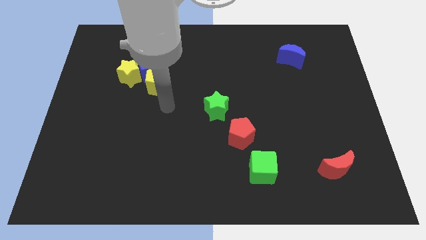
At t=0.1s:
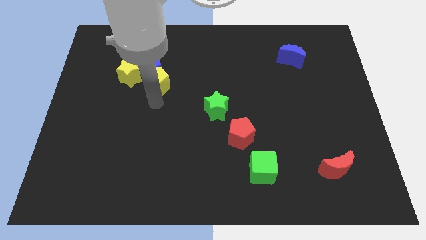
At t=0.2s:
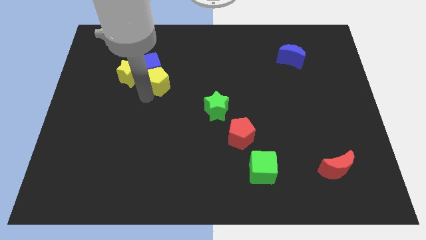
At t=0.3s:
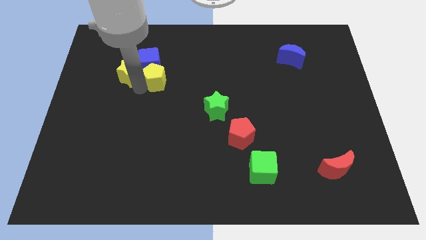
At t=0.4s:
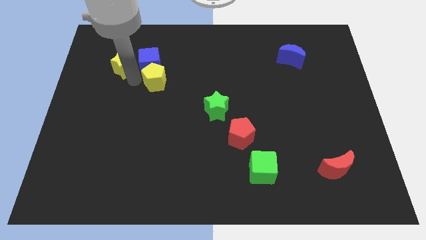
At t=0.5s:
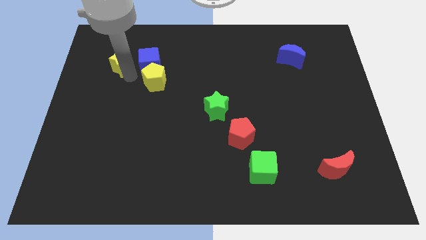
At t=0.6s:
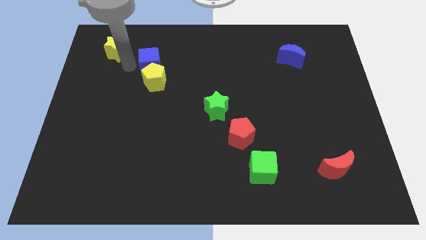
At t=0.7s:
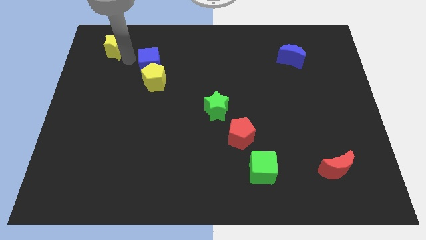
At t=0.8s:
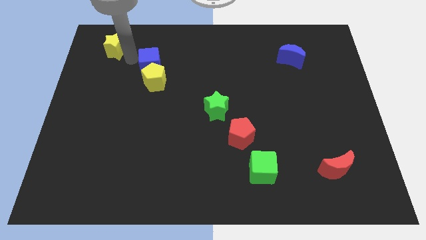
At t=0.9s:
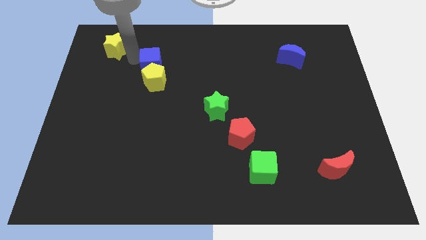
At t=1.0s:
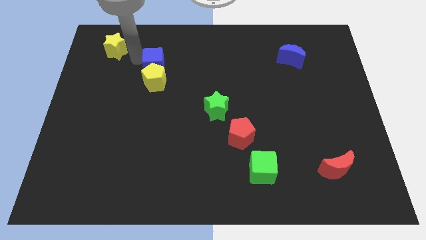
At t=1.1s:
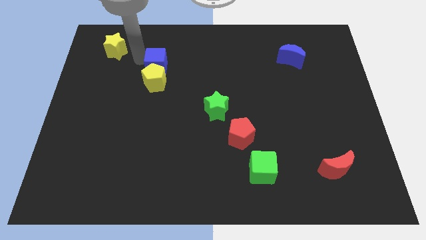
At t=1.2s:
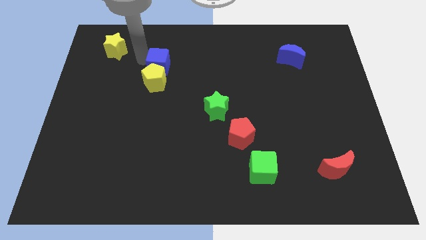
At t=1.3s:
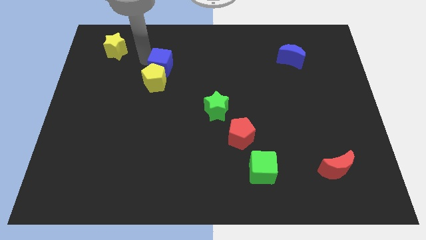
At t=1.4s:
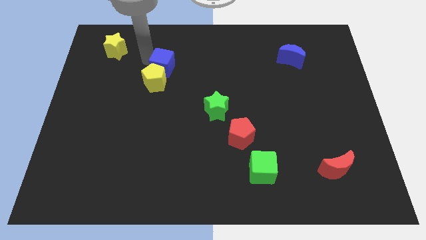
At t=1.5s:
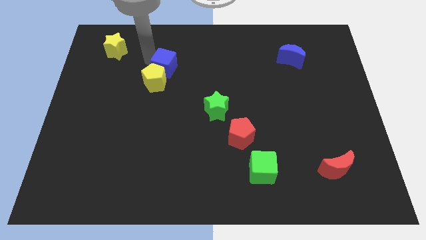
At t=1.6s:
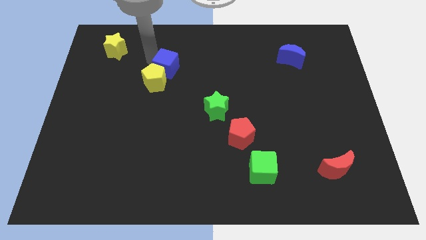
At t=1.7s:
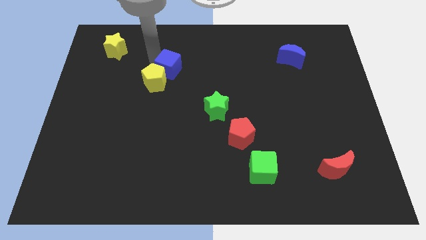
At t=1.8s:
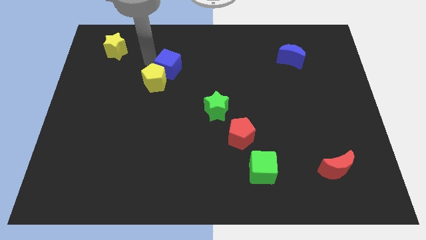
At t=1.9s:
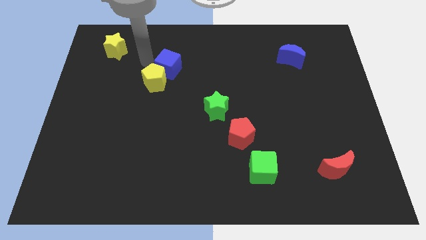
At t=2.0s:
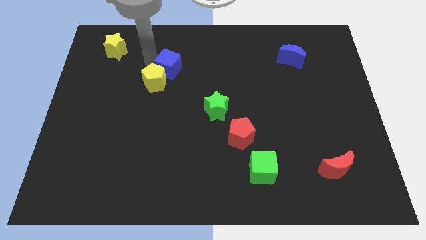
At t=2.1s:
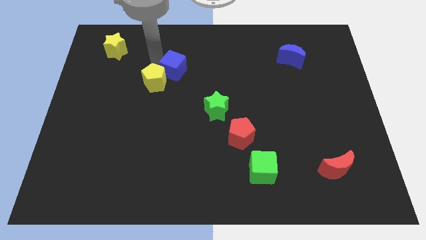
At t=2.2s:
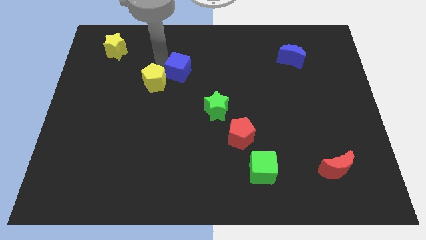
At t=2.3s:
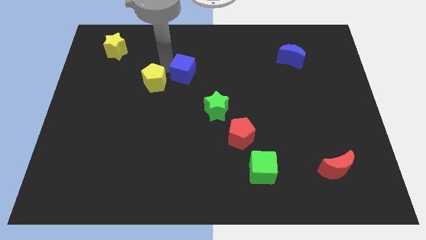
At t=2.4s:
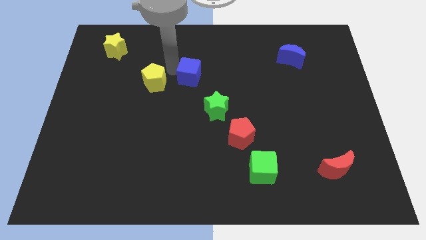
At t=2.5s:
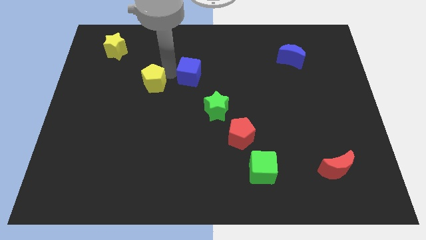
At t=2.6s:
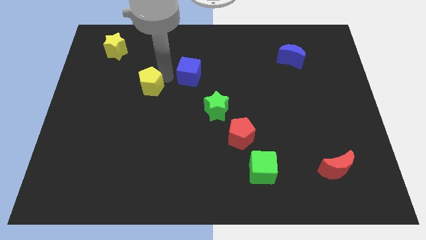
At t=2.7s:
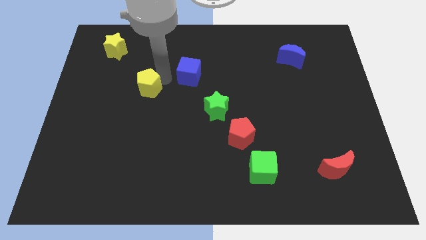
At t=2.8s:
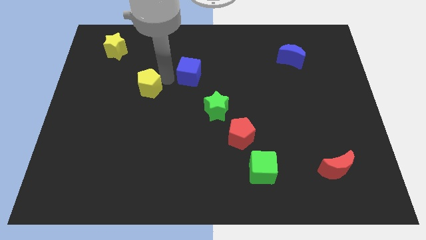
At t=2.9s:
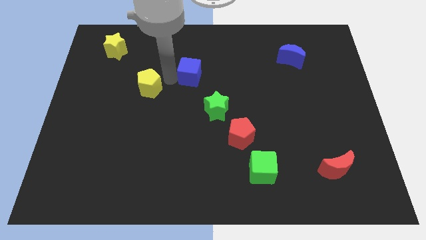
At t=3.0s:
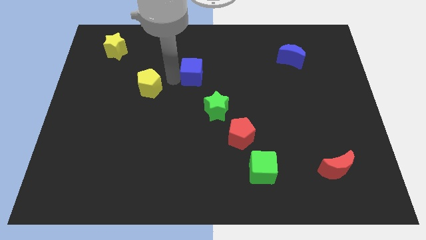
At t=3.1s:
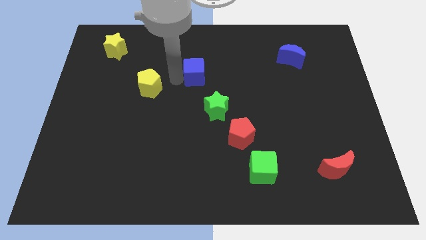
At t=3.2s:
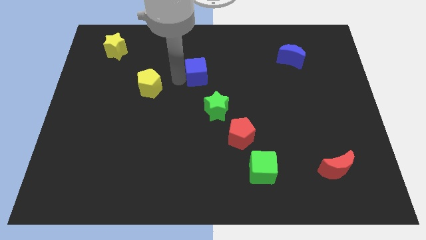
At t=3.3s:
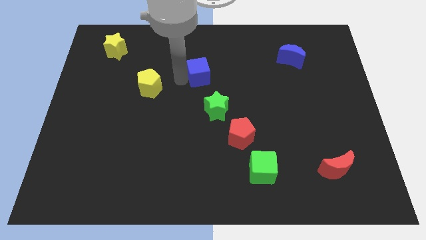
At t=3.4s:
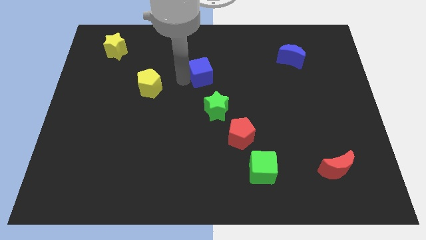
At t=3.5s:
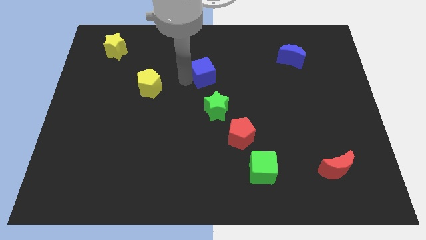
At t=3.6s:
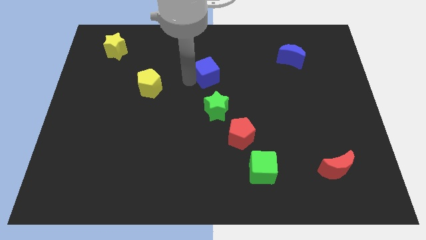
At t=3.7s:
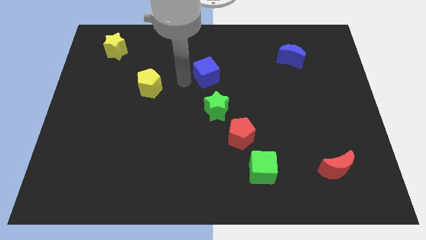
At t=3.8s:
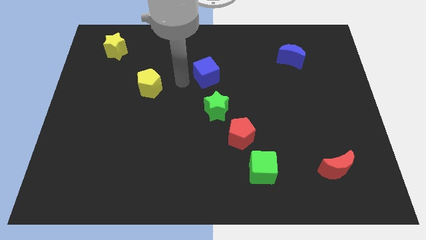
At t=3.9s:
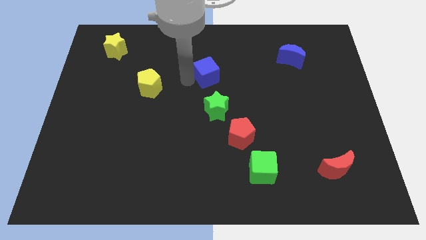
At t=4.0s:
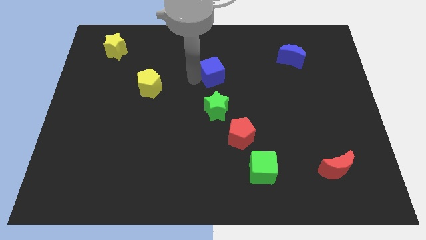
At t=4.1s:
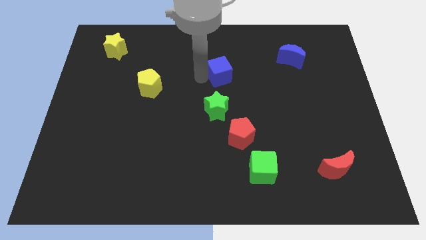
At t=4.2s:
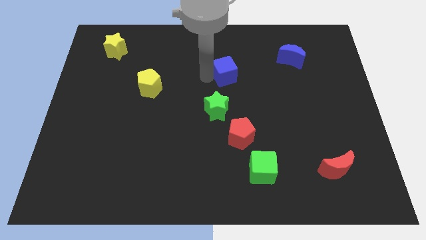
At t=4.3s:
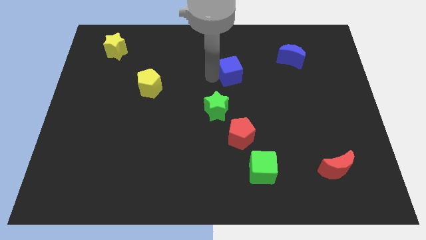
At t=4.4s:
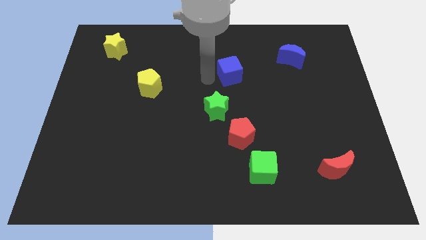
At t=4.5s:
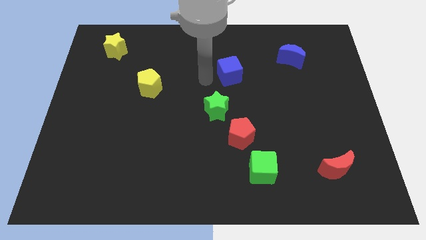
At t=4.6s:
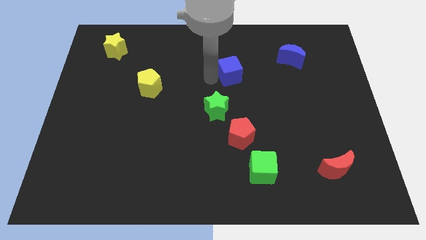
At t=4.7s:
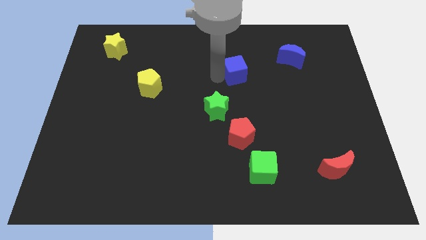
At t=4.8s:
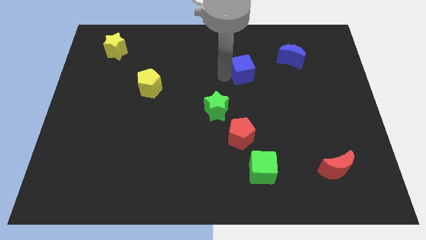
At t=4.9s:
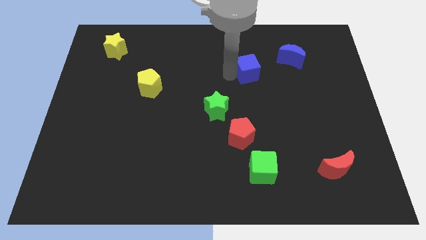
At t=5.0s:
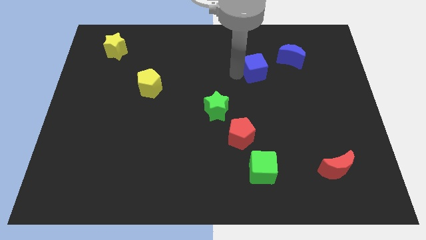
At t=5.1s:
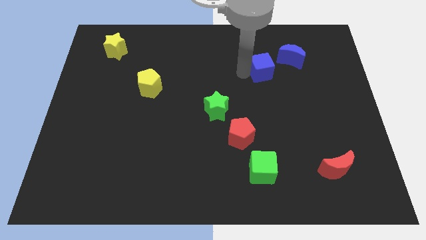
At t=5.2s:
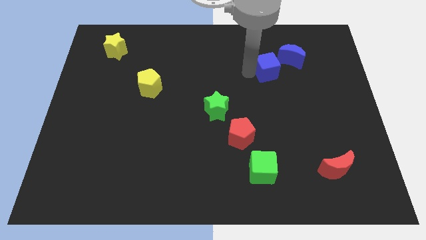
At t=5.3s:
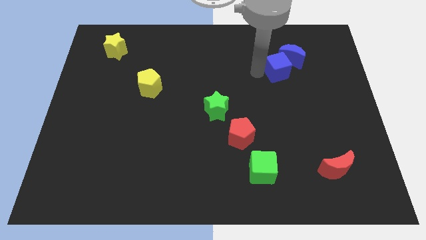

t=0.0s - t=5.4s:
put the blue cube to the blue moon

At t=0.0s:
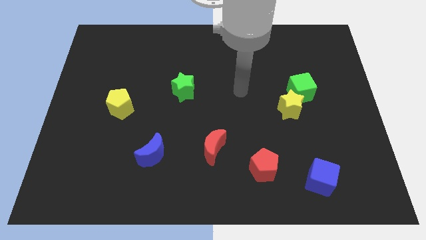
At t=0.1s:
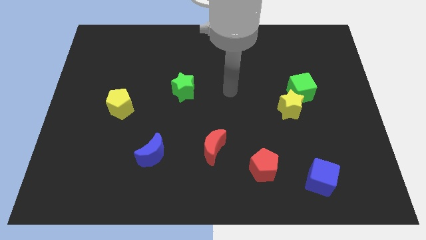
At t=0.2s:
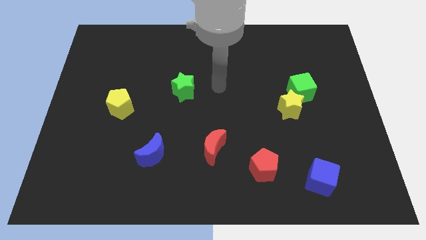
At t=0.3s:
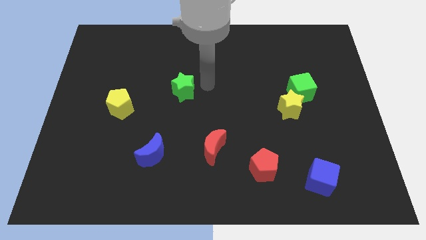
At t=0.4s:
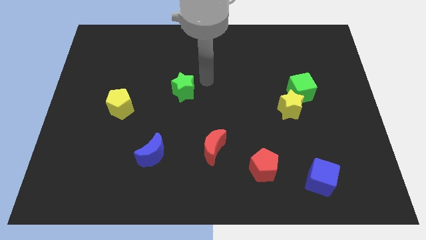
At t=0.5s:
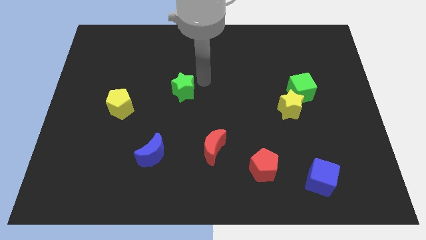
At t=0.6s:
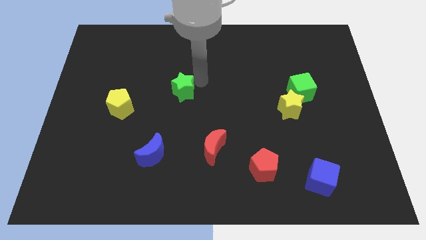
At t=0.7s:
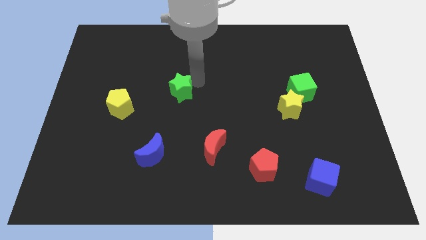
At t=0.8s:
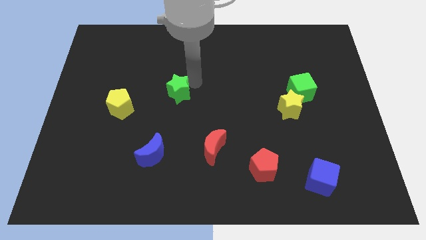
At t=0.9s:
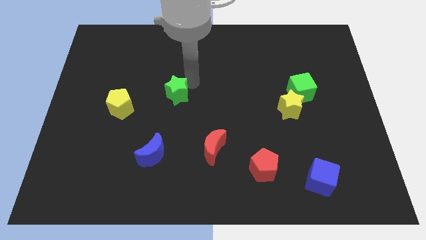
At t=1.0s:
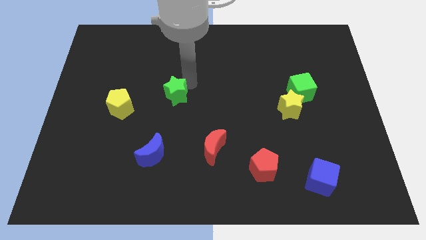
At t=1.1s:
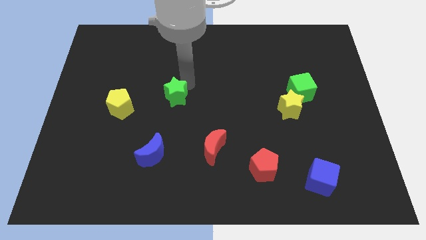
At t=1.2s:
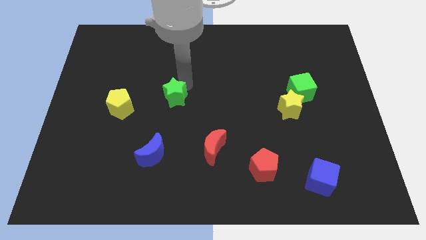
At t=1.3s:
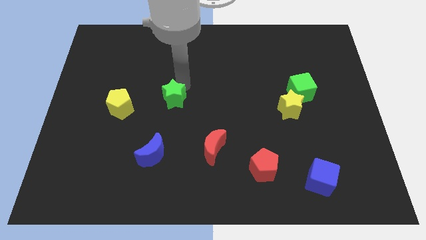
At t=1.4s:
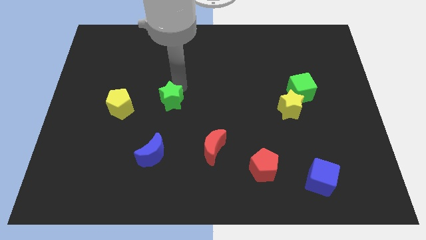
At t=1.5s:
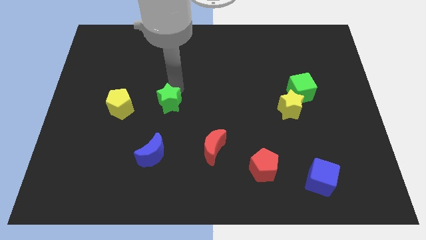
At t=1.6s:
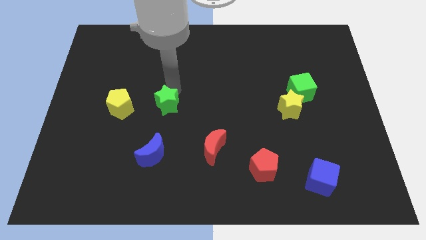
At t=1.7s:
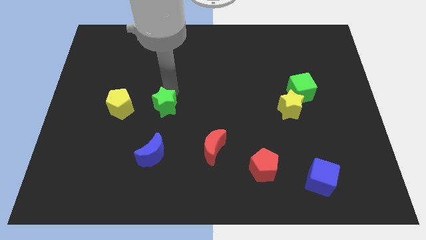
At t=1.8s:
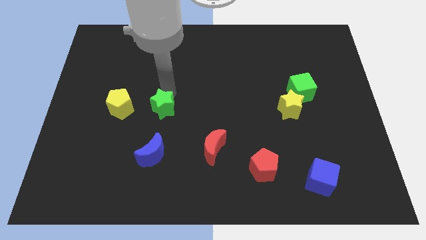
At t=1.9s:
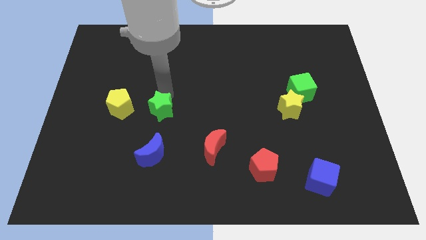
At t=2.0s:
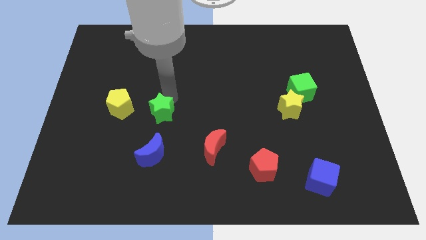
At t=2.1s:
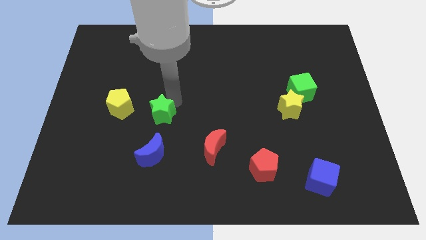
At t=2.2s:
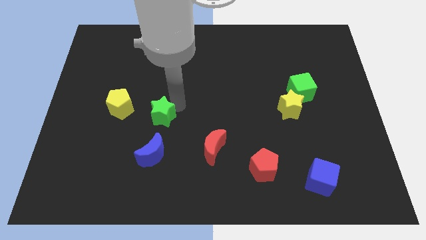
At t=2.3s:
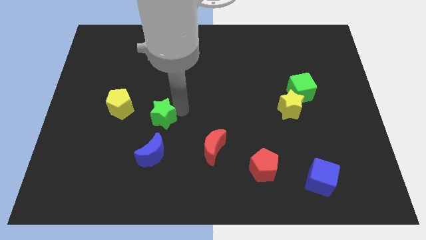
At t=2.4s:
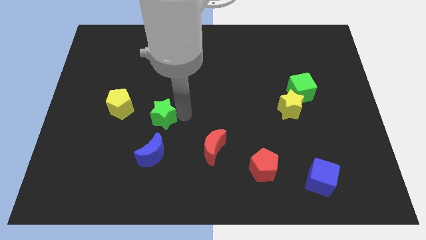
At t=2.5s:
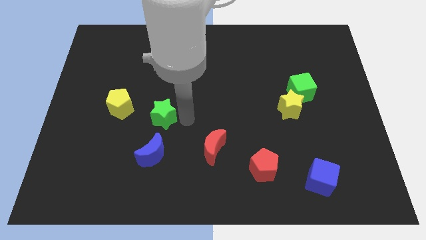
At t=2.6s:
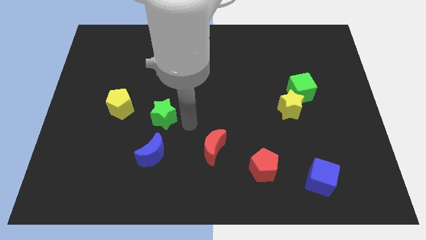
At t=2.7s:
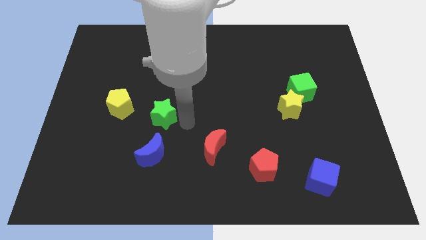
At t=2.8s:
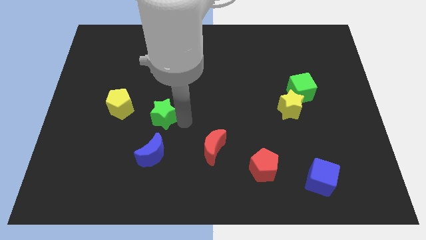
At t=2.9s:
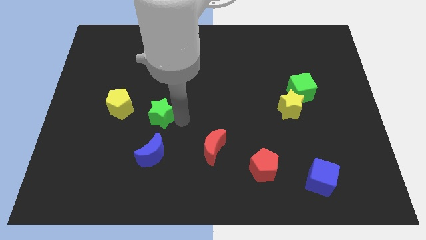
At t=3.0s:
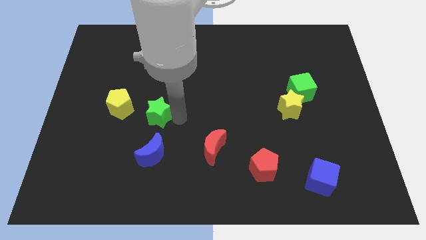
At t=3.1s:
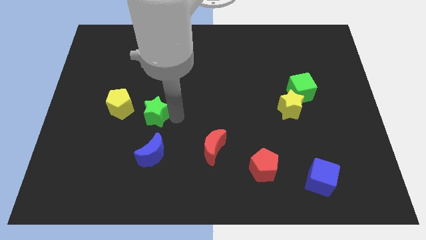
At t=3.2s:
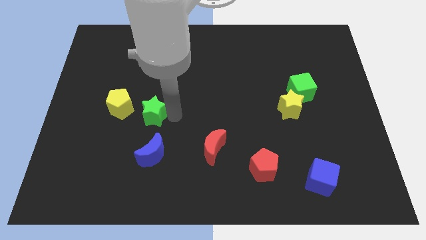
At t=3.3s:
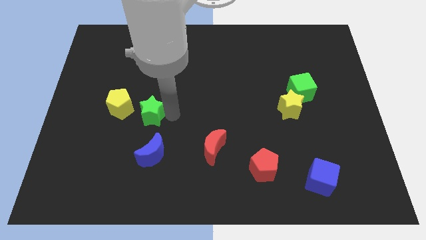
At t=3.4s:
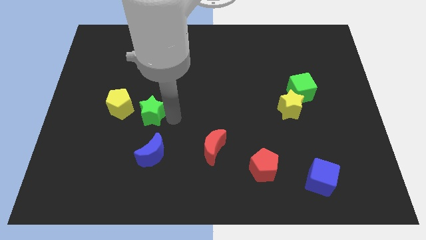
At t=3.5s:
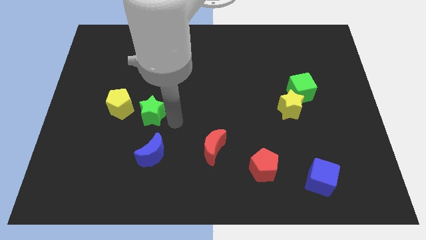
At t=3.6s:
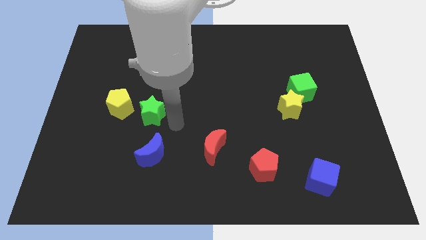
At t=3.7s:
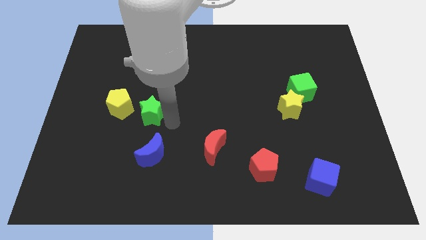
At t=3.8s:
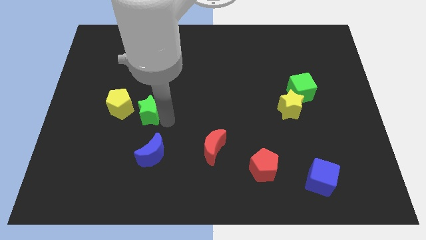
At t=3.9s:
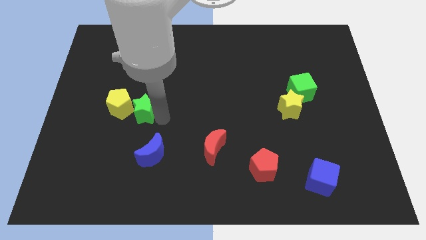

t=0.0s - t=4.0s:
put the green star to the yellow pentagon
